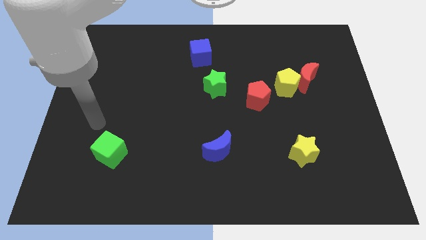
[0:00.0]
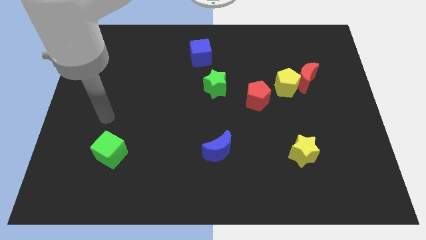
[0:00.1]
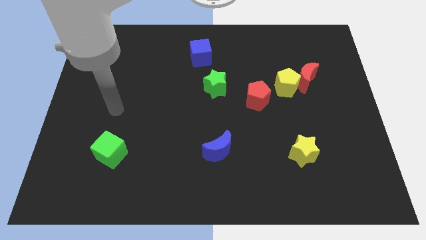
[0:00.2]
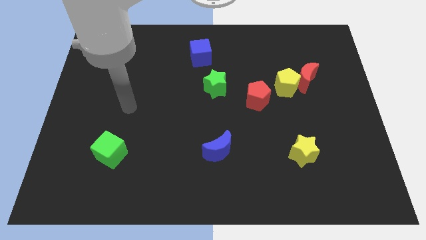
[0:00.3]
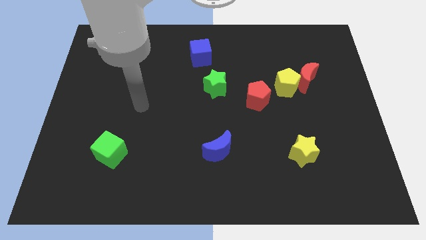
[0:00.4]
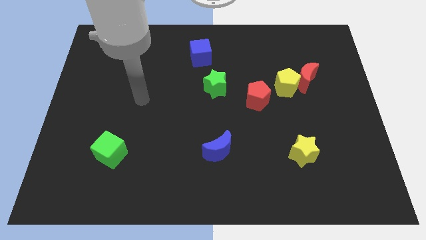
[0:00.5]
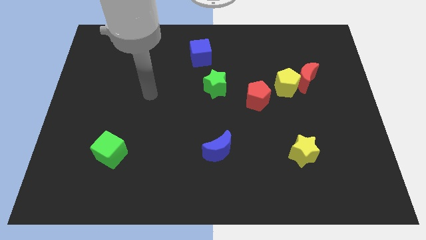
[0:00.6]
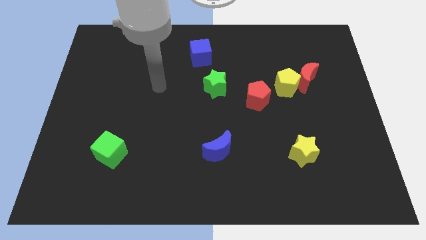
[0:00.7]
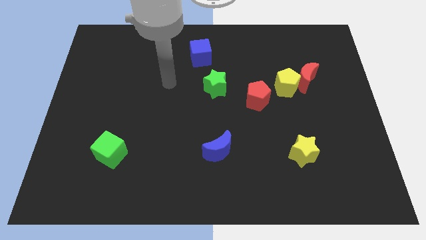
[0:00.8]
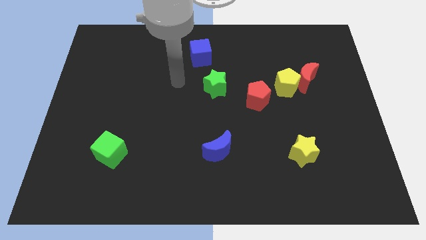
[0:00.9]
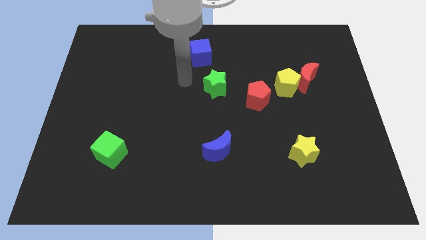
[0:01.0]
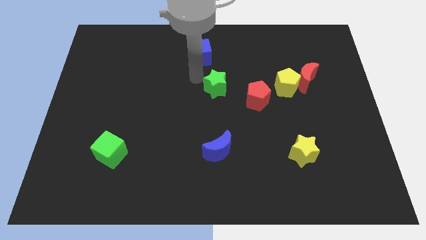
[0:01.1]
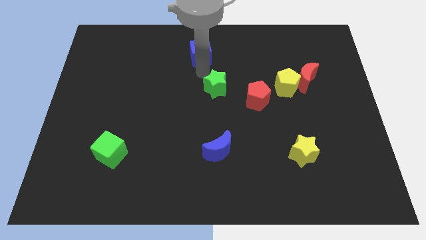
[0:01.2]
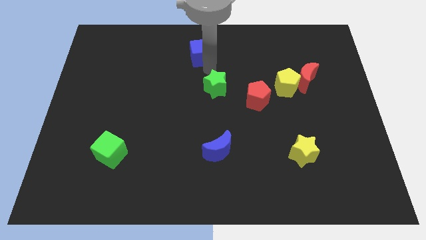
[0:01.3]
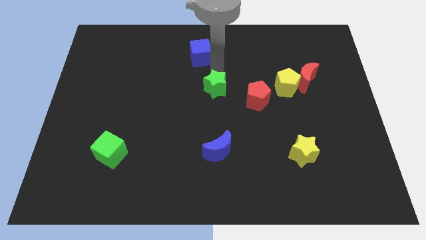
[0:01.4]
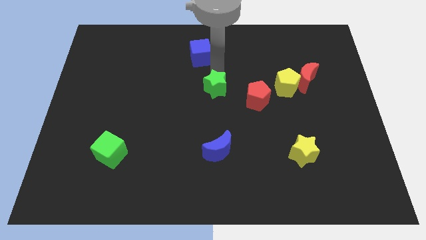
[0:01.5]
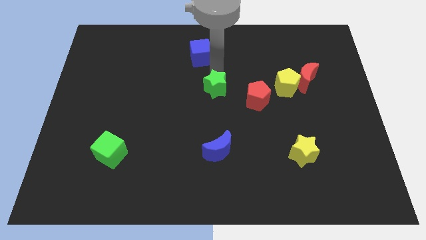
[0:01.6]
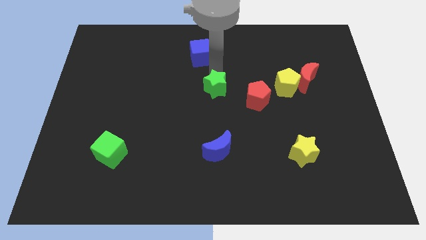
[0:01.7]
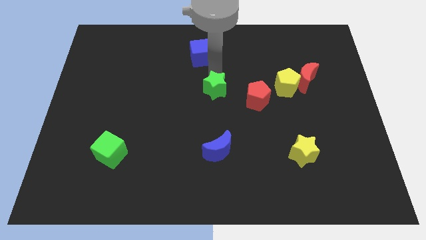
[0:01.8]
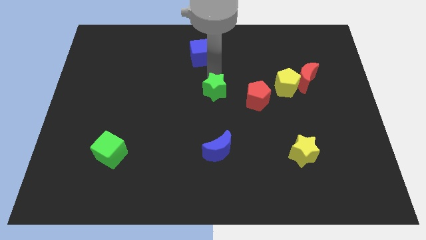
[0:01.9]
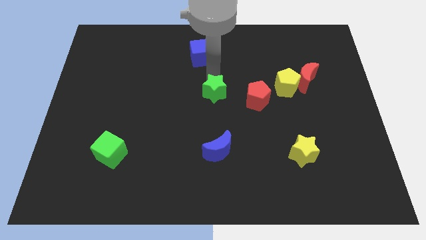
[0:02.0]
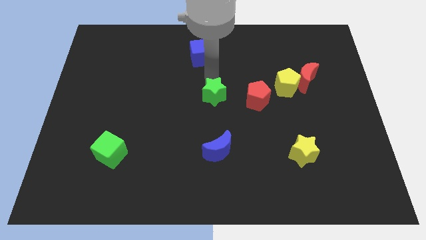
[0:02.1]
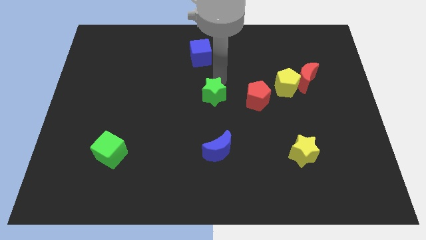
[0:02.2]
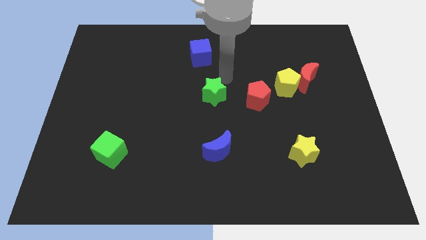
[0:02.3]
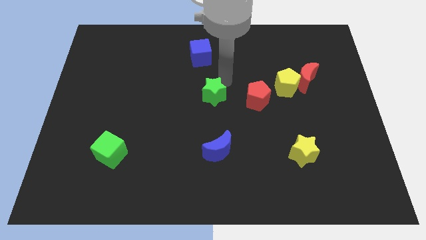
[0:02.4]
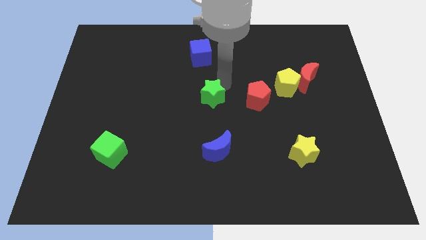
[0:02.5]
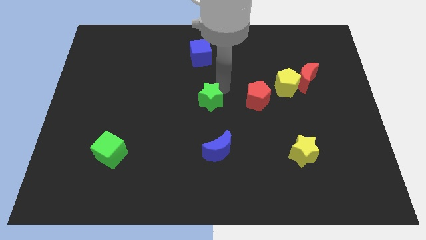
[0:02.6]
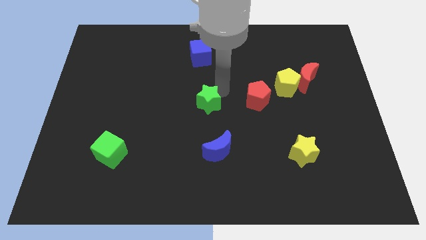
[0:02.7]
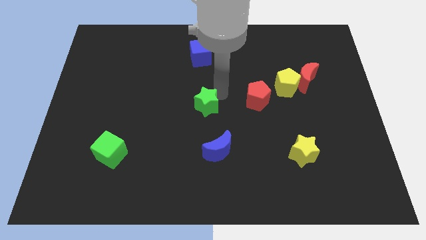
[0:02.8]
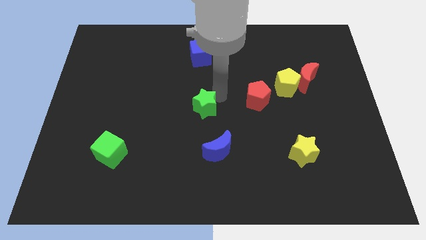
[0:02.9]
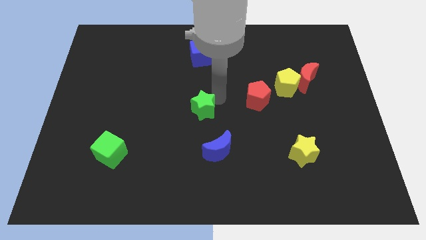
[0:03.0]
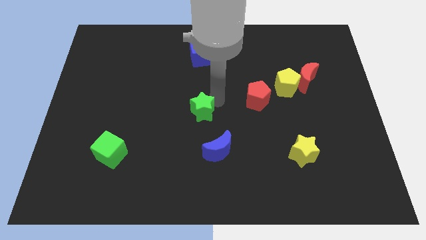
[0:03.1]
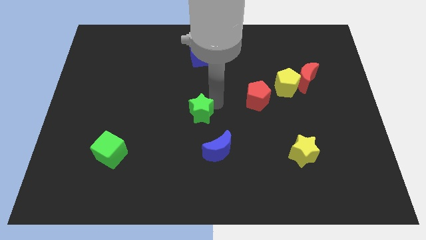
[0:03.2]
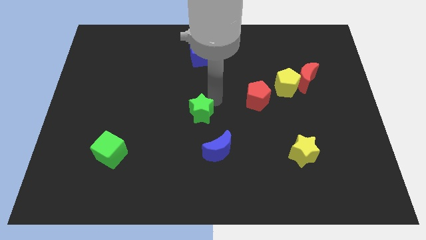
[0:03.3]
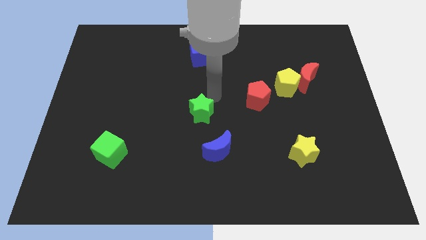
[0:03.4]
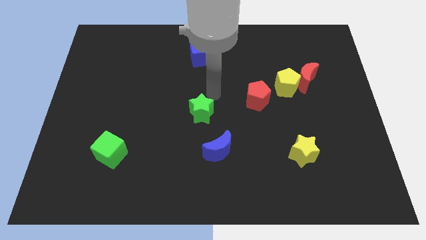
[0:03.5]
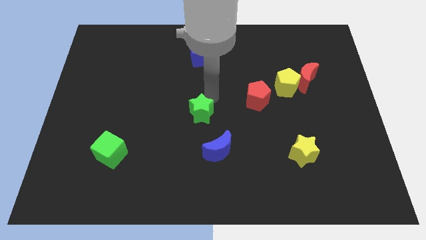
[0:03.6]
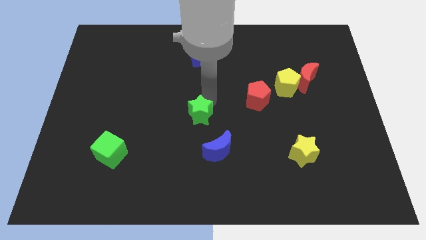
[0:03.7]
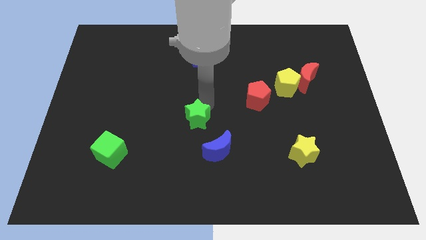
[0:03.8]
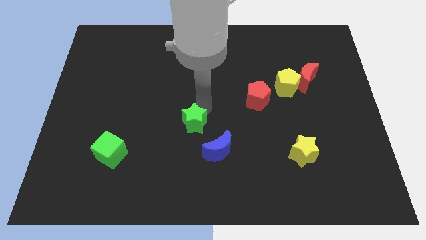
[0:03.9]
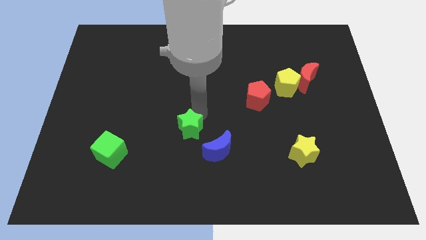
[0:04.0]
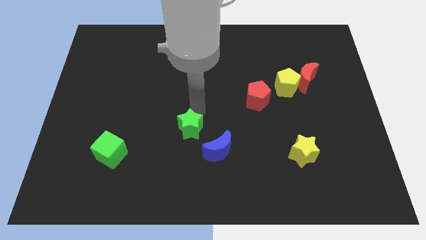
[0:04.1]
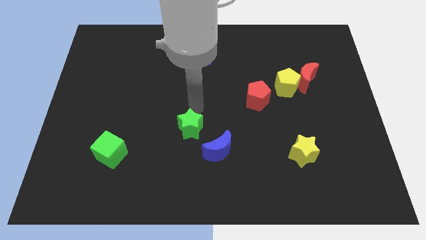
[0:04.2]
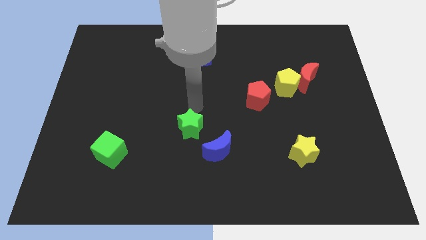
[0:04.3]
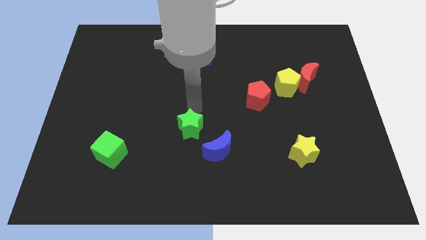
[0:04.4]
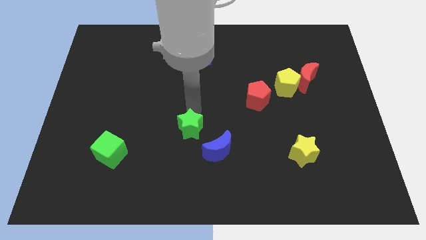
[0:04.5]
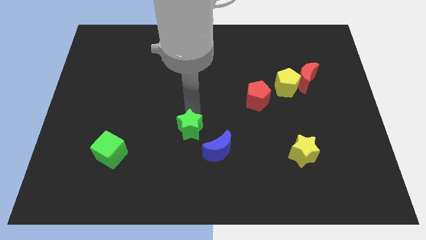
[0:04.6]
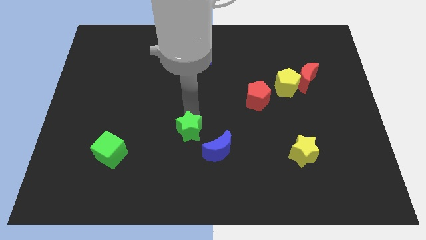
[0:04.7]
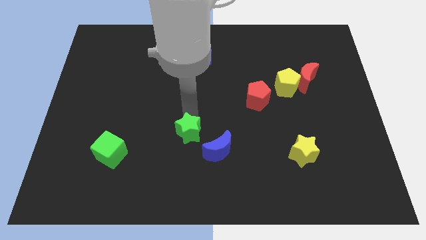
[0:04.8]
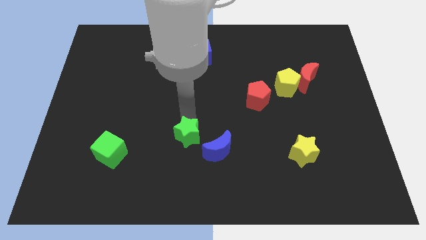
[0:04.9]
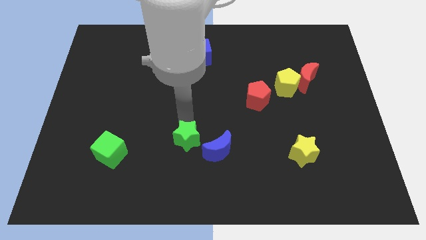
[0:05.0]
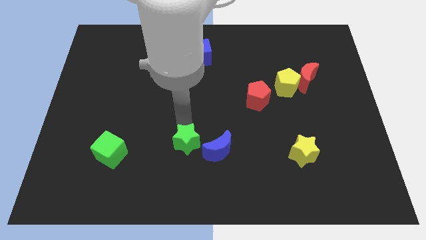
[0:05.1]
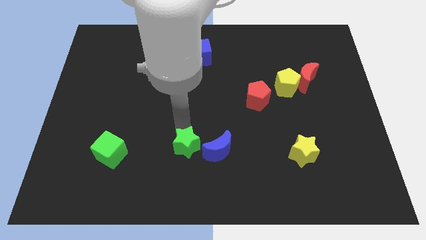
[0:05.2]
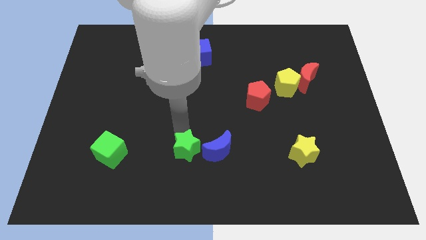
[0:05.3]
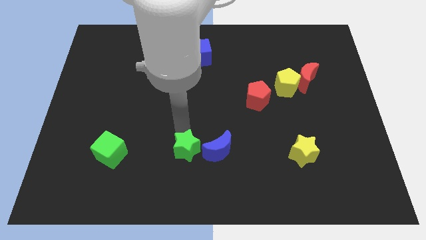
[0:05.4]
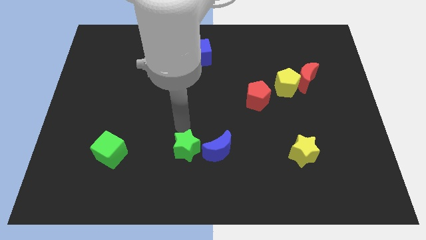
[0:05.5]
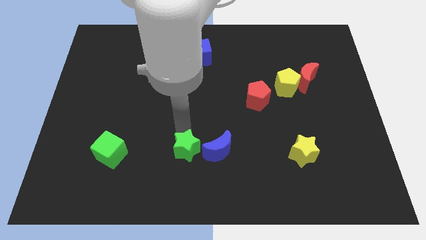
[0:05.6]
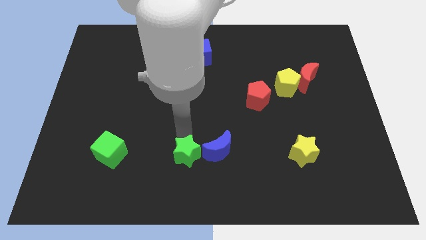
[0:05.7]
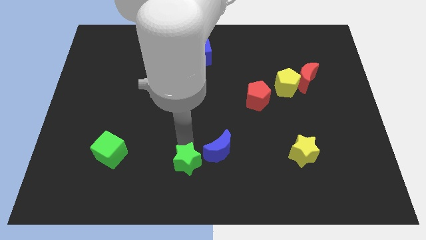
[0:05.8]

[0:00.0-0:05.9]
slide the green star to the bottom

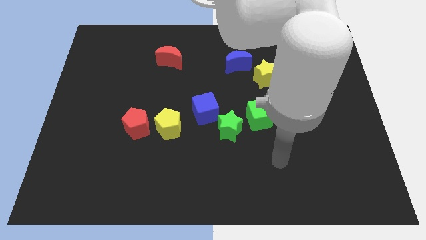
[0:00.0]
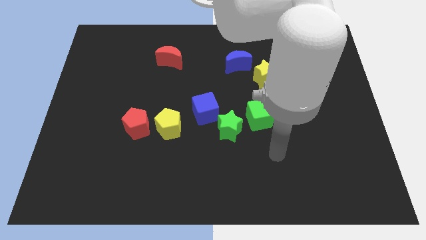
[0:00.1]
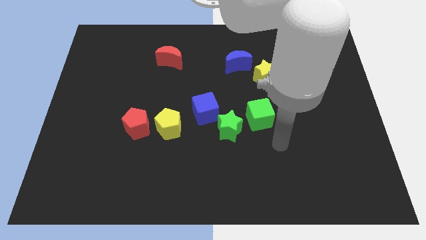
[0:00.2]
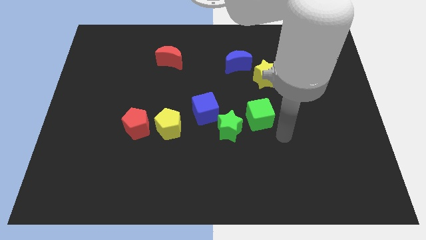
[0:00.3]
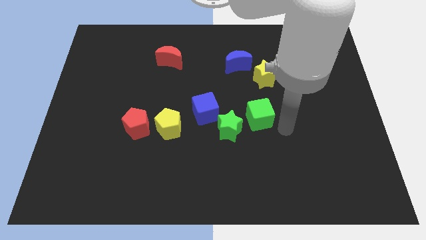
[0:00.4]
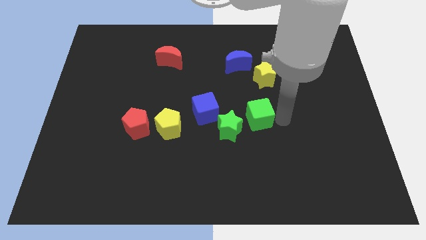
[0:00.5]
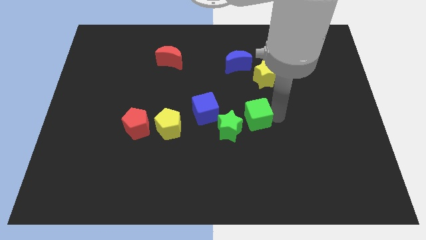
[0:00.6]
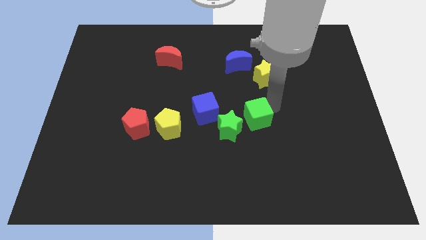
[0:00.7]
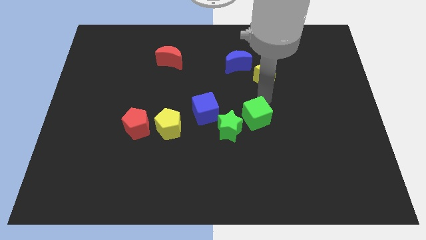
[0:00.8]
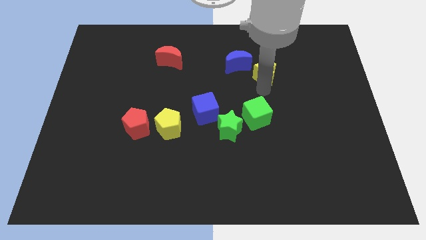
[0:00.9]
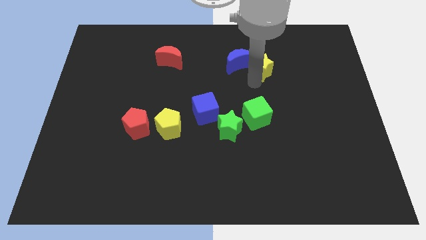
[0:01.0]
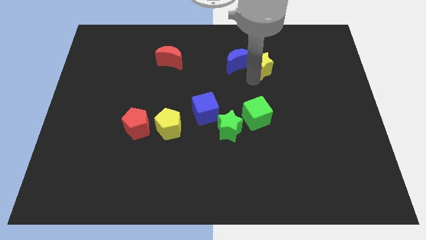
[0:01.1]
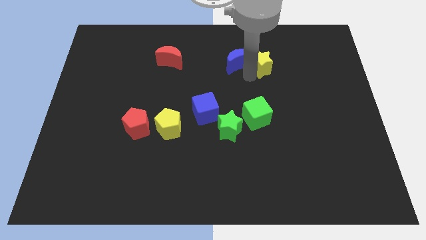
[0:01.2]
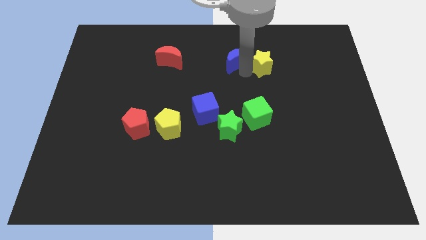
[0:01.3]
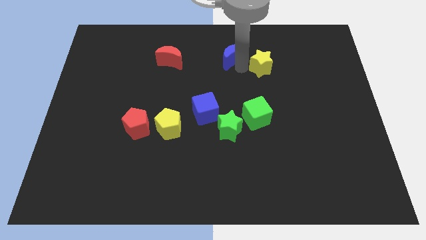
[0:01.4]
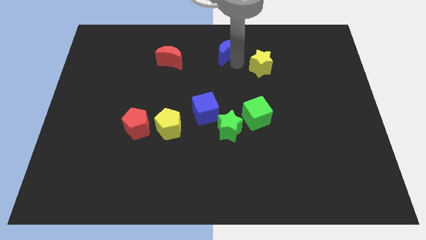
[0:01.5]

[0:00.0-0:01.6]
put the blue moon to the top
